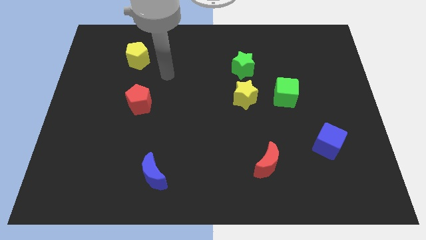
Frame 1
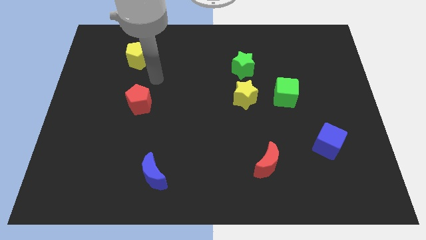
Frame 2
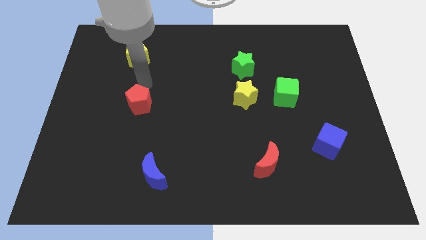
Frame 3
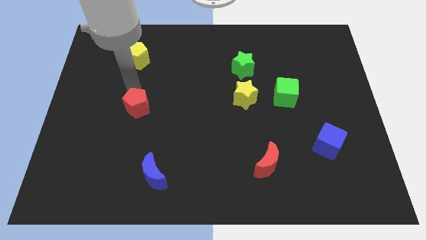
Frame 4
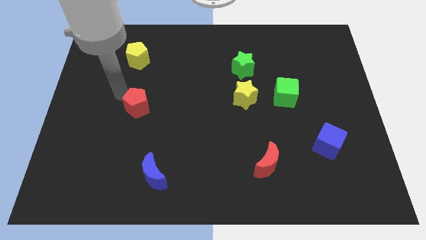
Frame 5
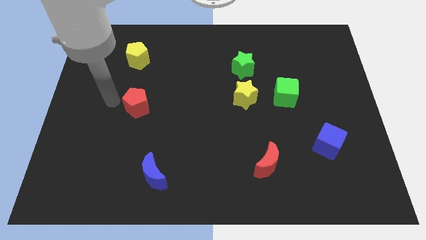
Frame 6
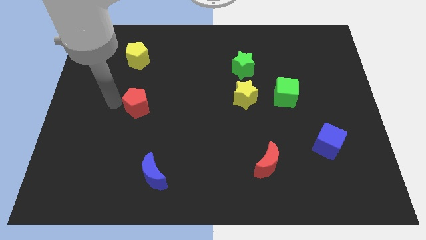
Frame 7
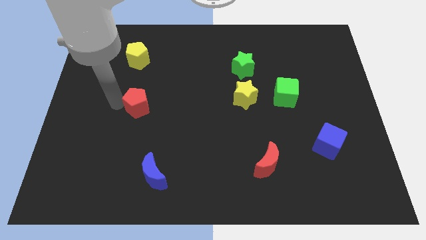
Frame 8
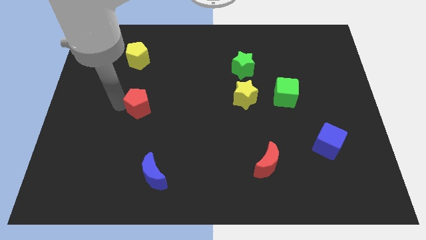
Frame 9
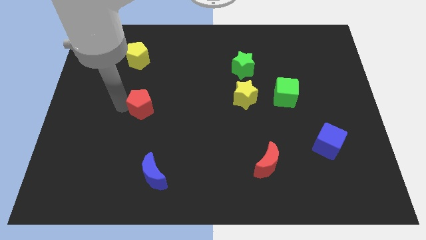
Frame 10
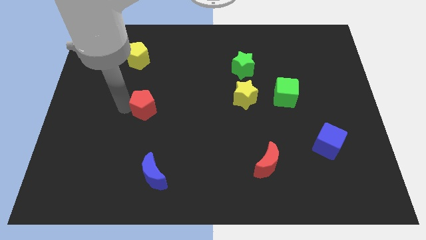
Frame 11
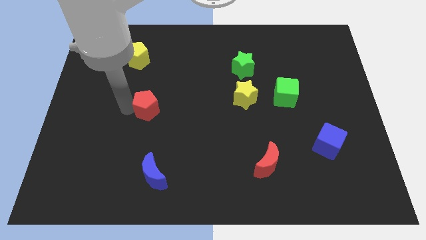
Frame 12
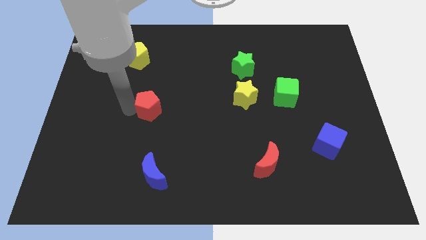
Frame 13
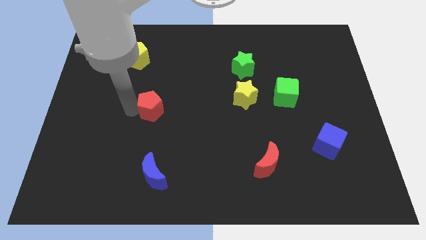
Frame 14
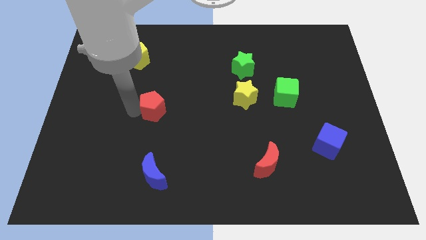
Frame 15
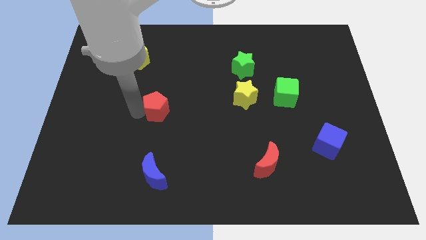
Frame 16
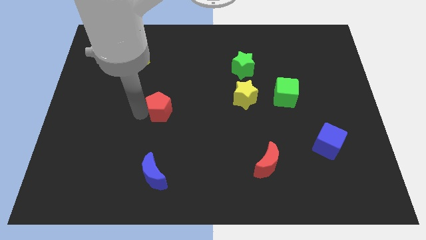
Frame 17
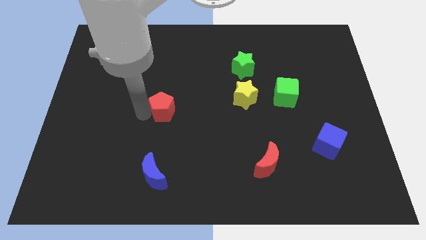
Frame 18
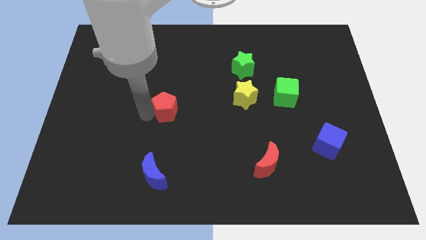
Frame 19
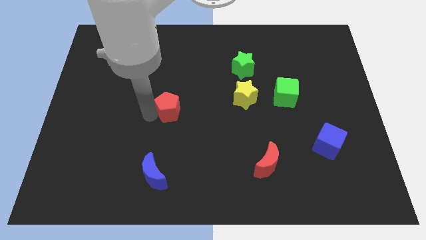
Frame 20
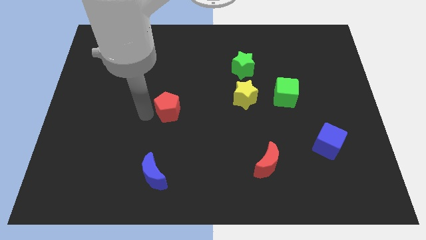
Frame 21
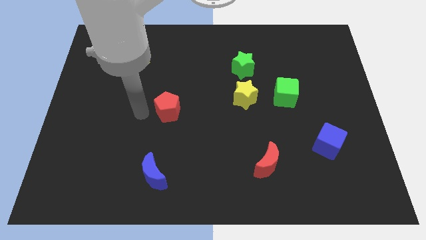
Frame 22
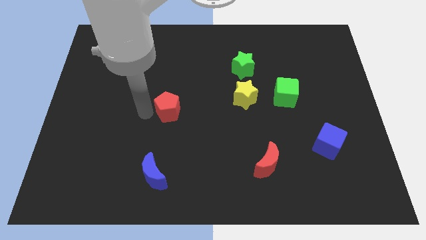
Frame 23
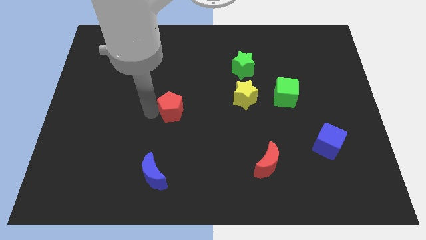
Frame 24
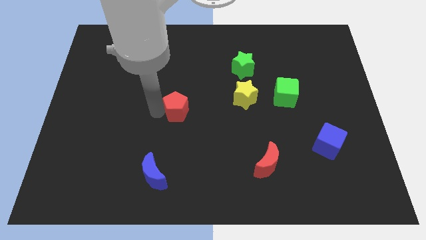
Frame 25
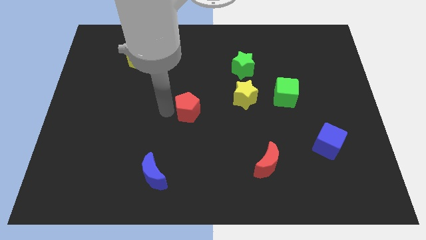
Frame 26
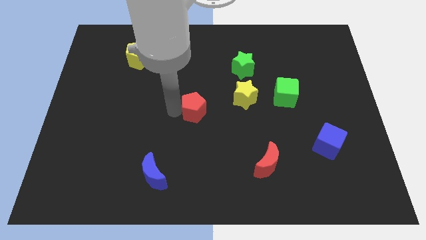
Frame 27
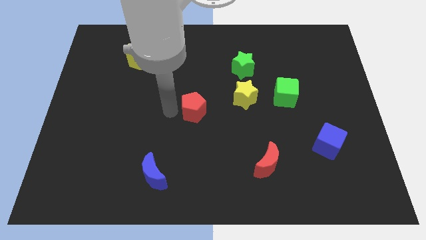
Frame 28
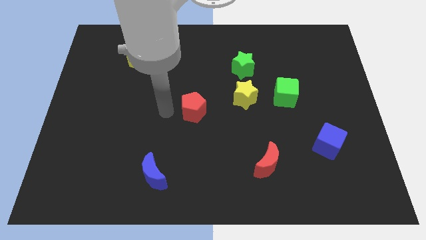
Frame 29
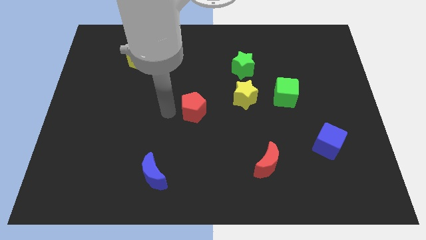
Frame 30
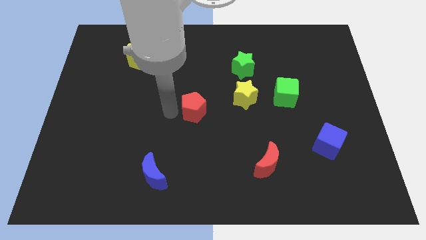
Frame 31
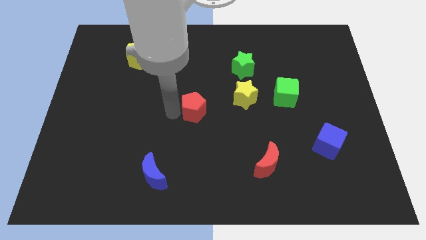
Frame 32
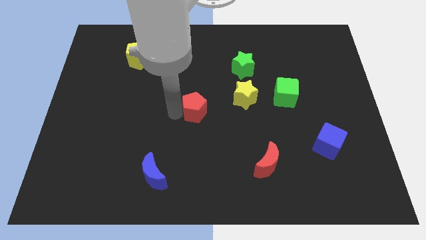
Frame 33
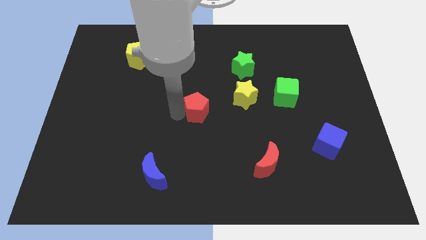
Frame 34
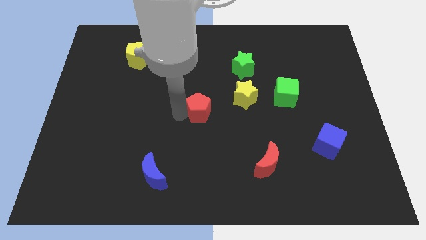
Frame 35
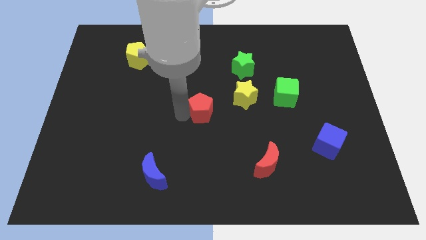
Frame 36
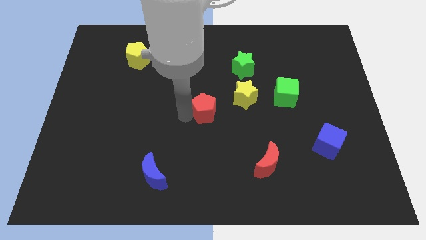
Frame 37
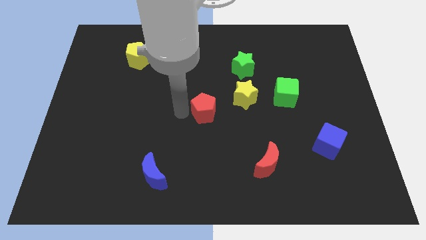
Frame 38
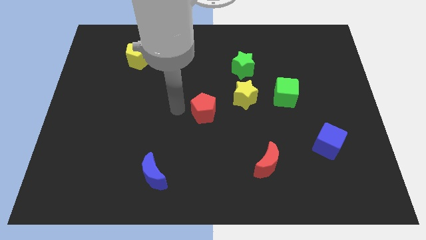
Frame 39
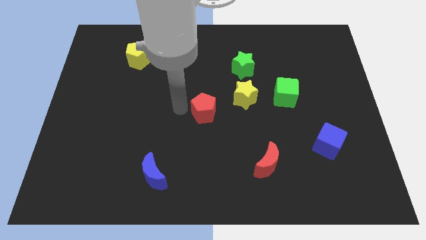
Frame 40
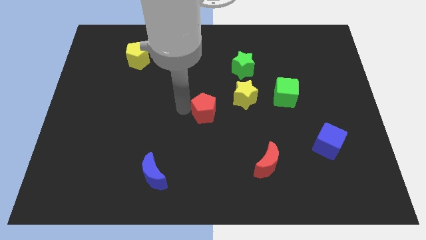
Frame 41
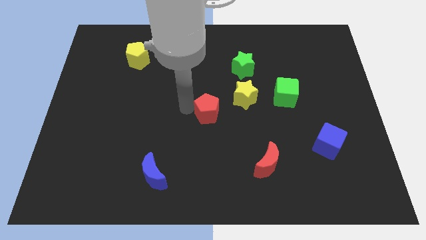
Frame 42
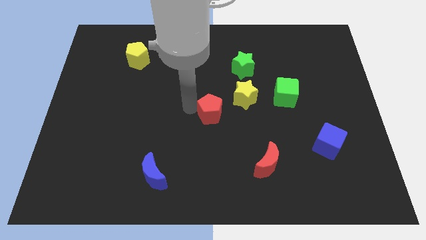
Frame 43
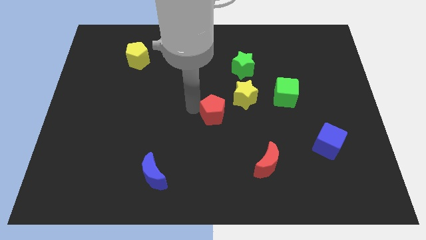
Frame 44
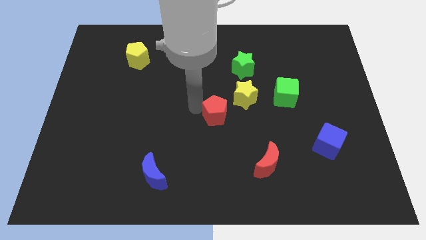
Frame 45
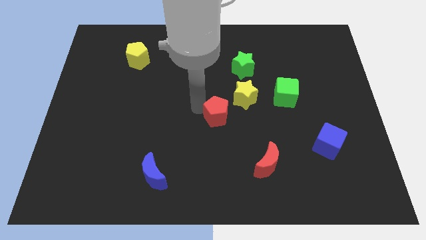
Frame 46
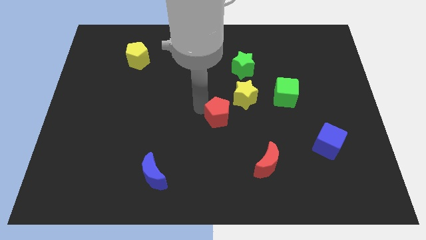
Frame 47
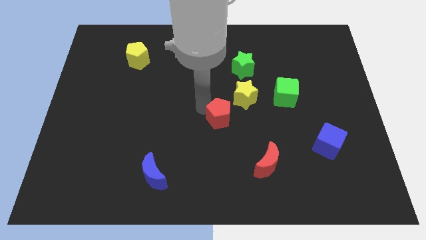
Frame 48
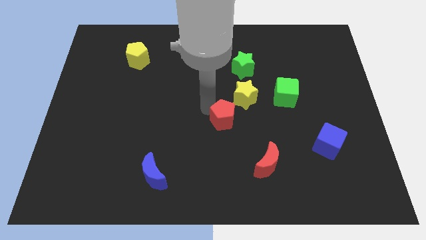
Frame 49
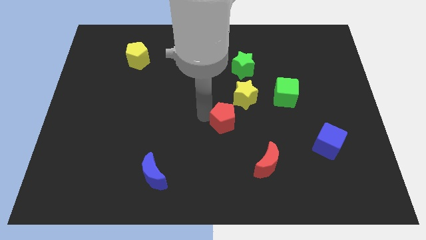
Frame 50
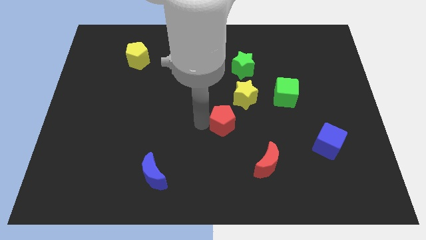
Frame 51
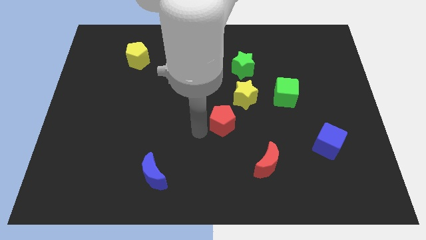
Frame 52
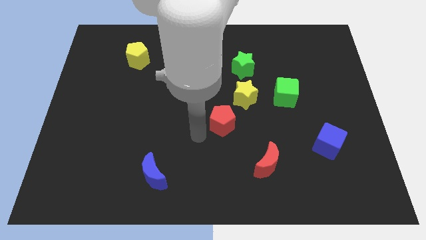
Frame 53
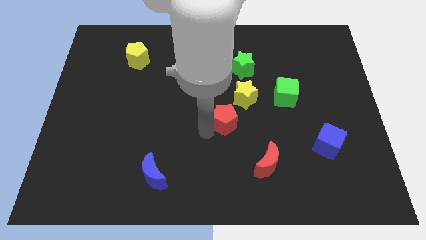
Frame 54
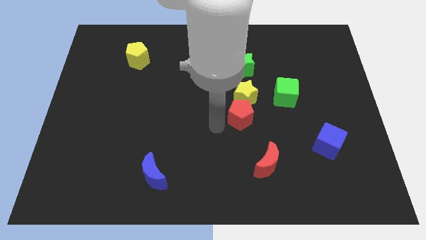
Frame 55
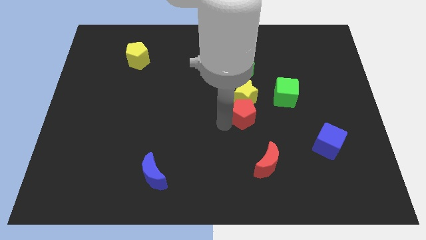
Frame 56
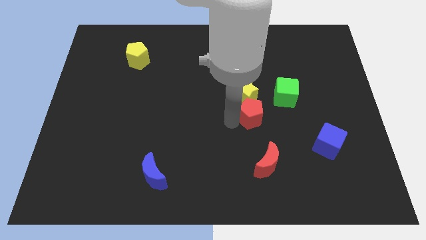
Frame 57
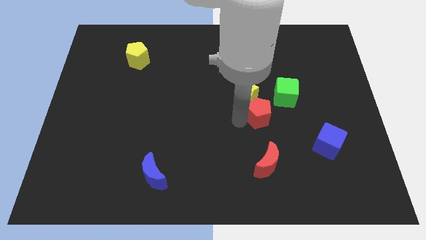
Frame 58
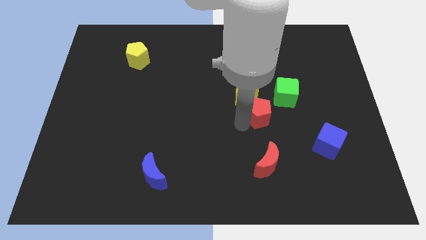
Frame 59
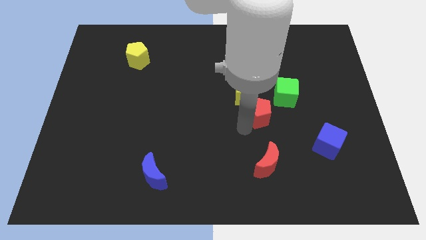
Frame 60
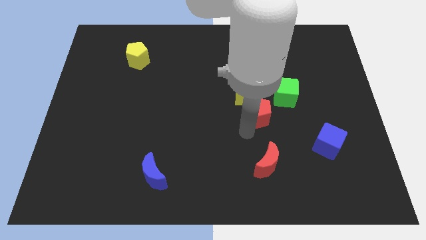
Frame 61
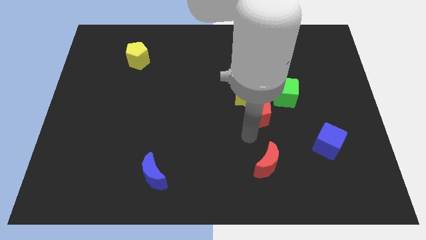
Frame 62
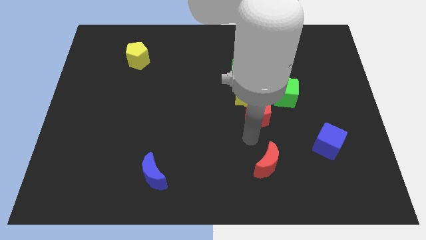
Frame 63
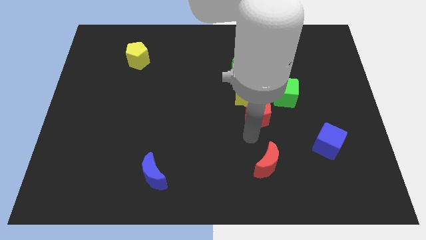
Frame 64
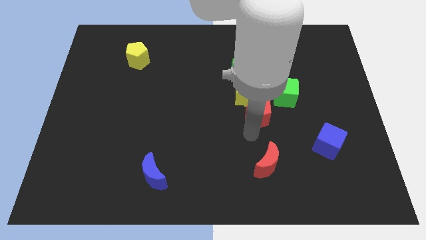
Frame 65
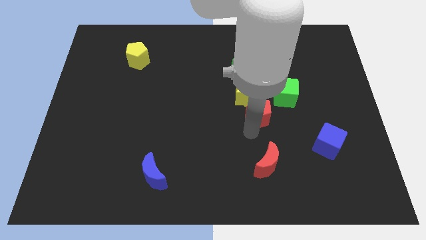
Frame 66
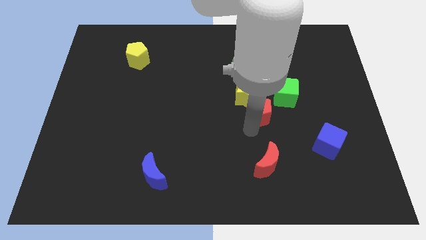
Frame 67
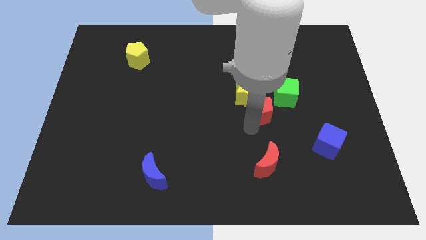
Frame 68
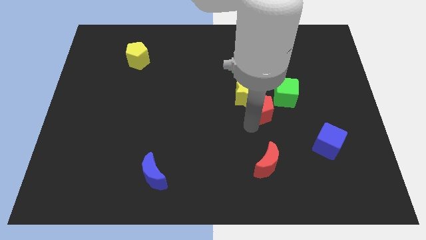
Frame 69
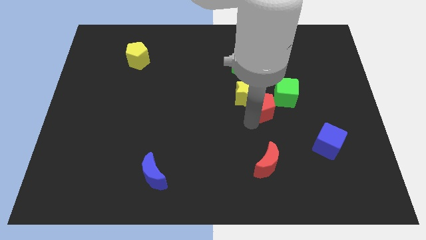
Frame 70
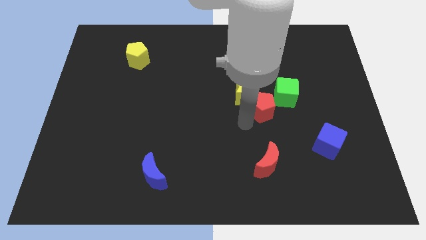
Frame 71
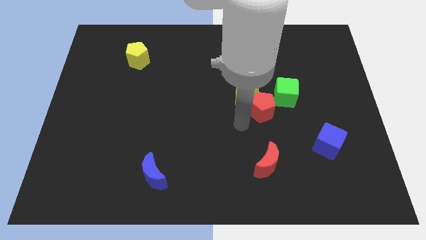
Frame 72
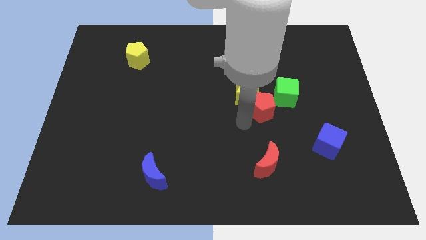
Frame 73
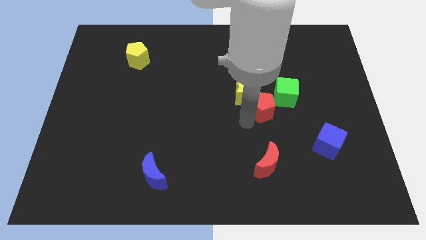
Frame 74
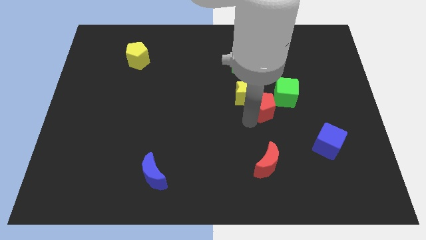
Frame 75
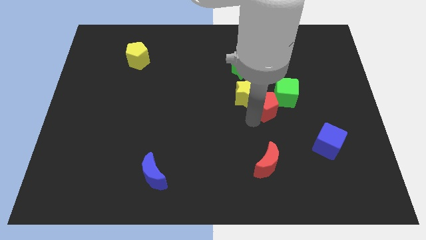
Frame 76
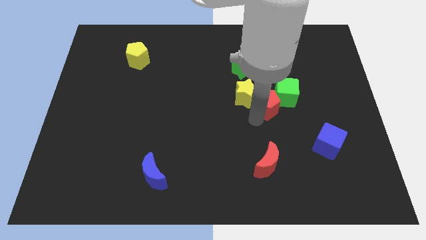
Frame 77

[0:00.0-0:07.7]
put the red pentagon close to the green cube
